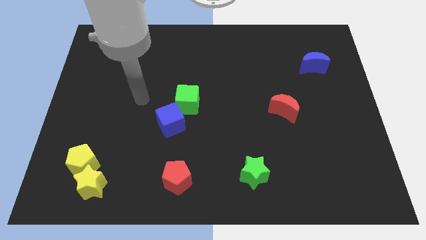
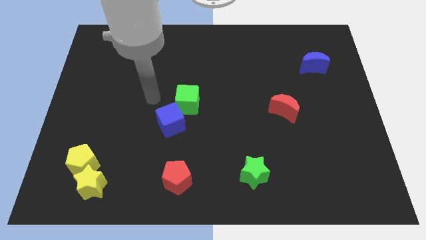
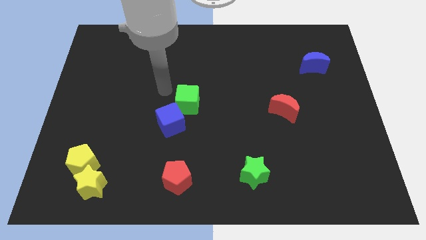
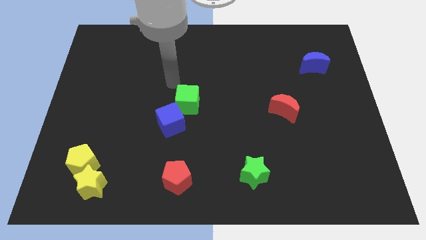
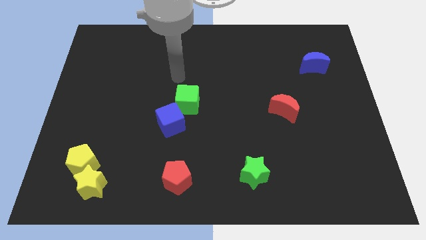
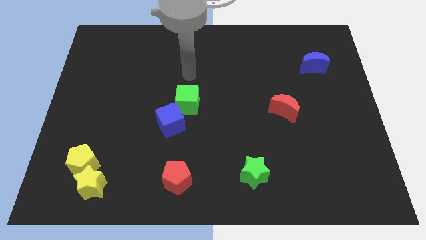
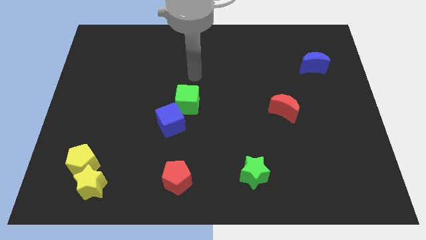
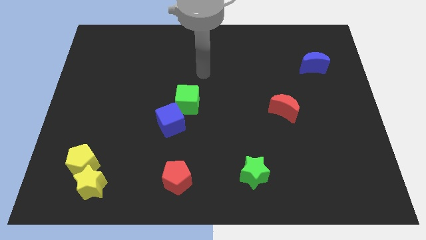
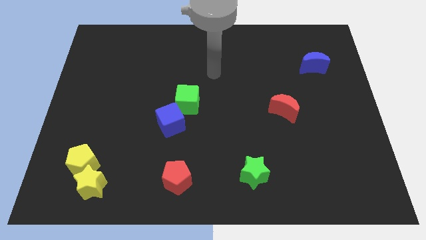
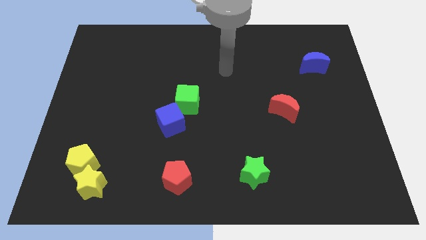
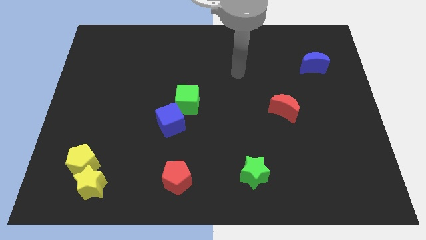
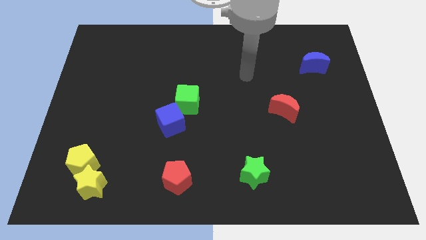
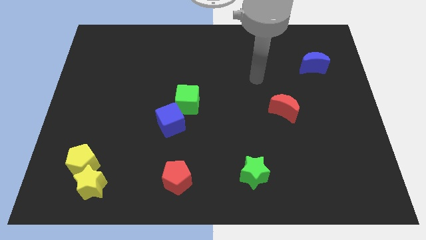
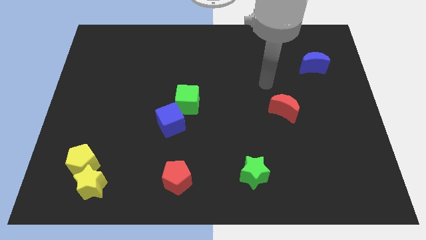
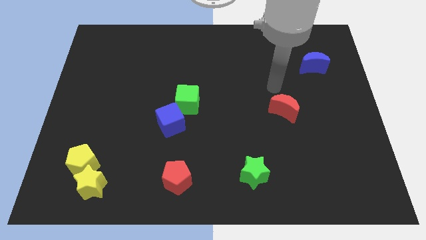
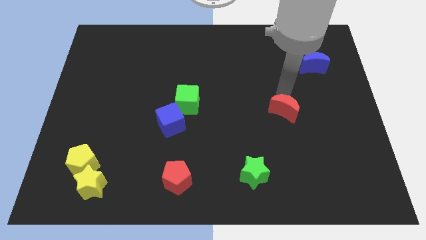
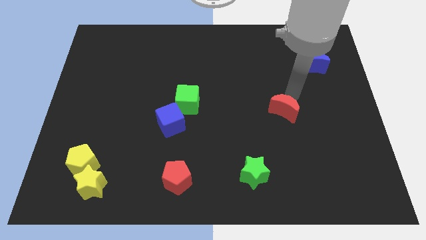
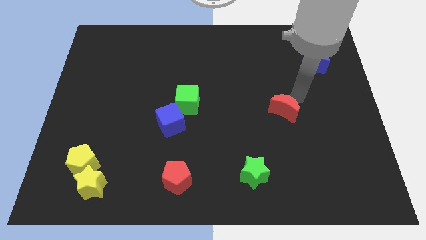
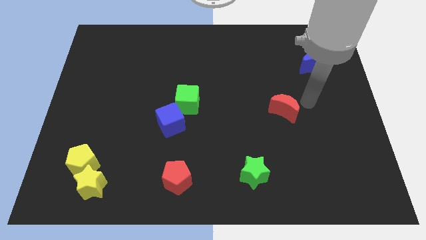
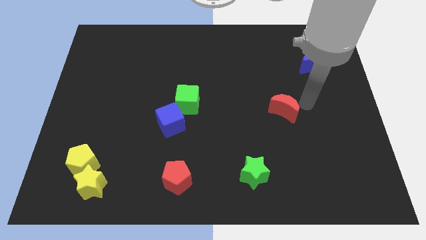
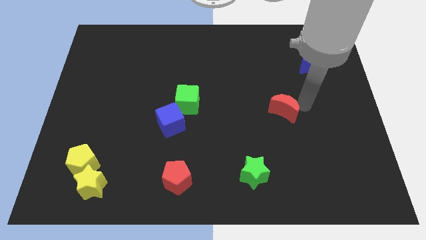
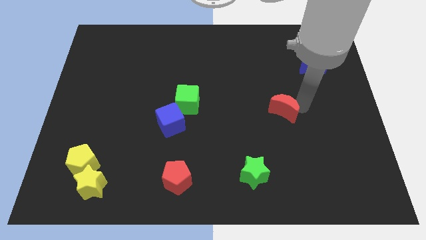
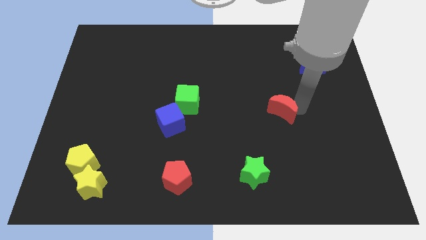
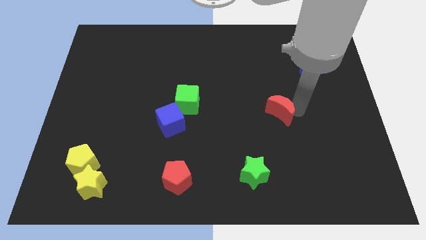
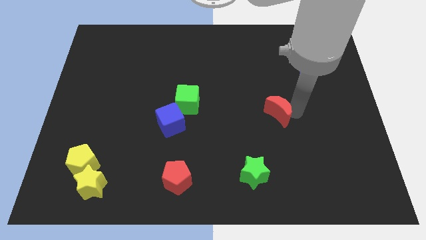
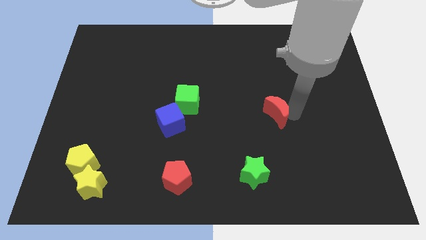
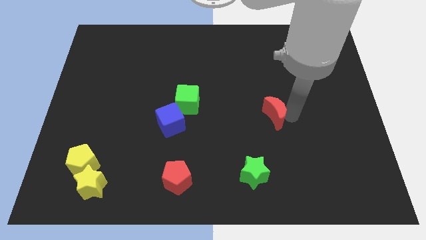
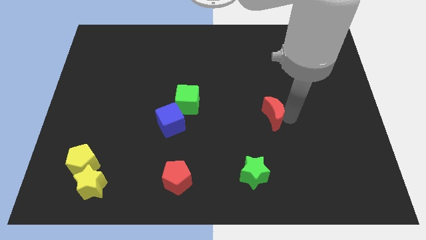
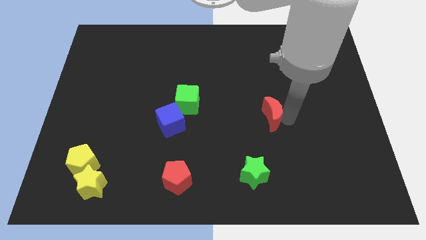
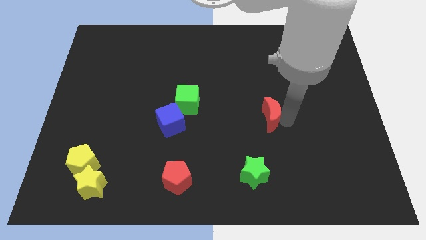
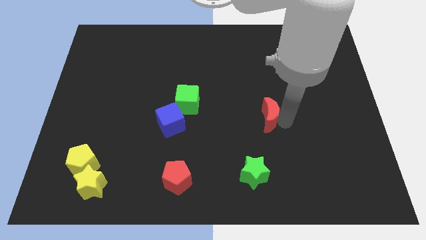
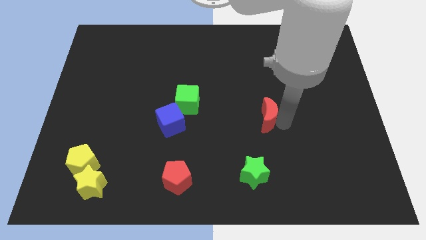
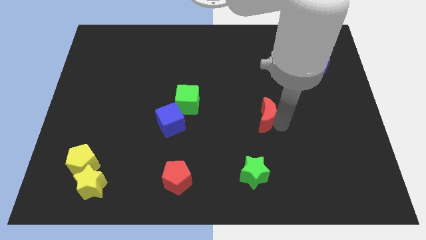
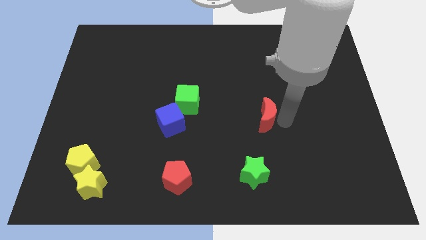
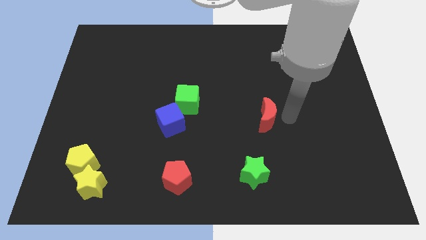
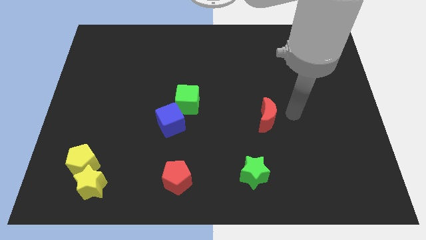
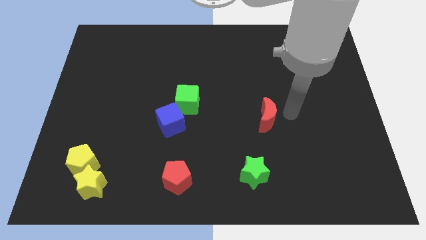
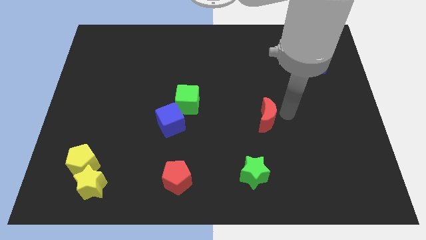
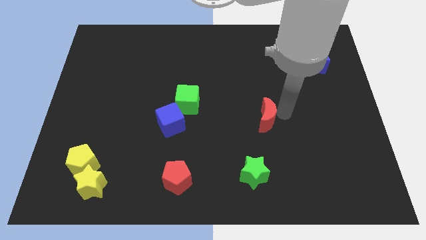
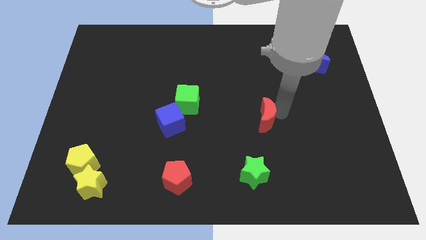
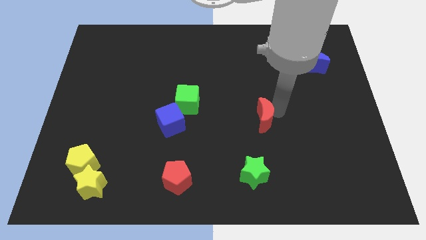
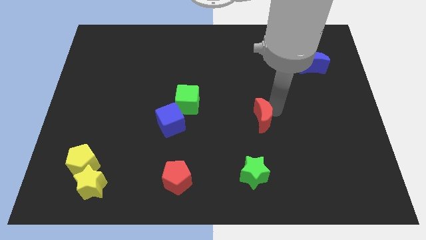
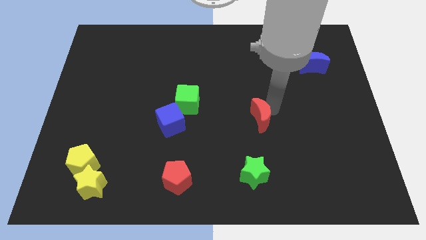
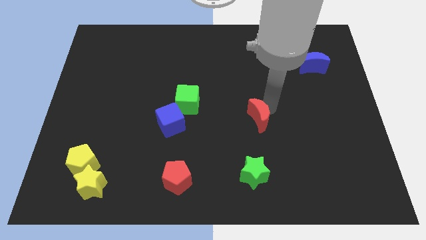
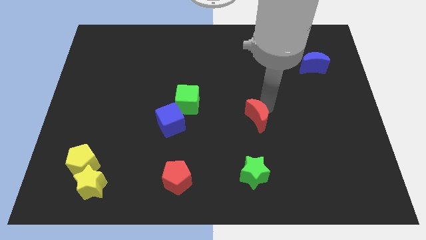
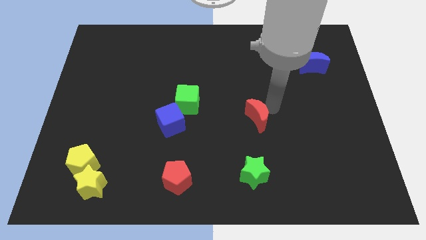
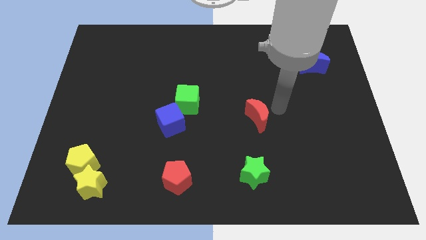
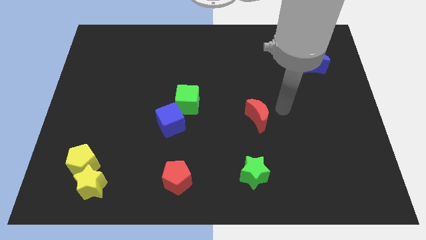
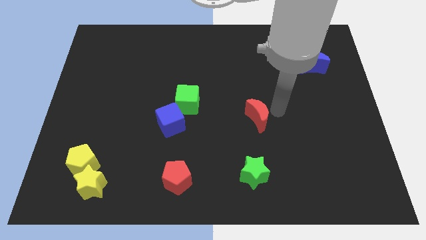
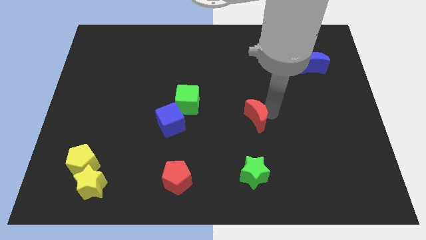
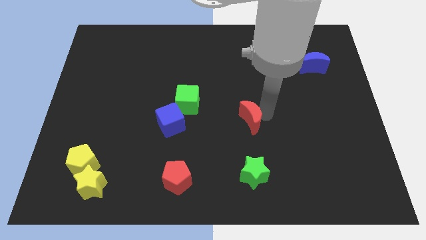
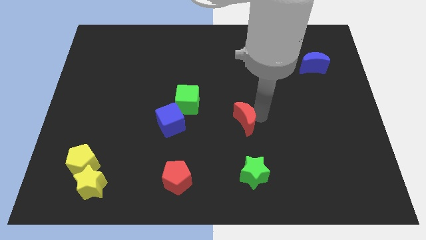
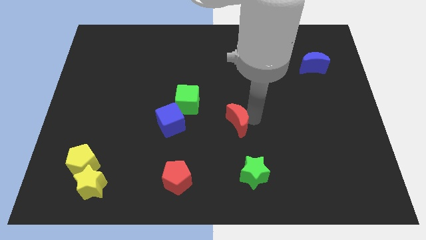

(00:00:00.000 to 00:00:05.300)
put the red moon right of the blue cube

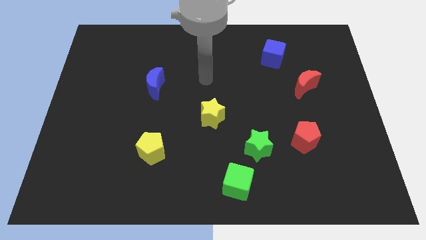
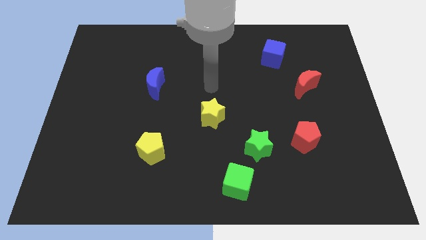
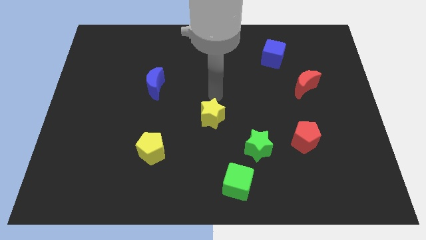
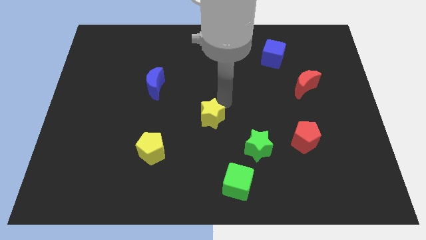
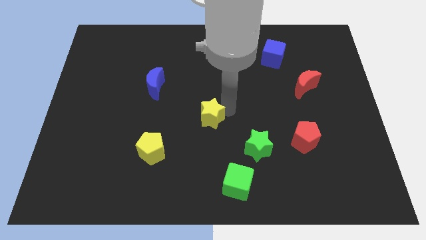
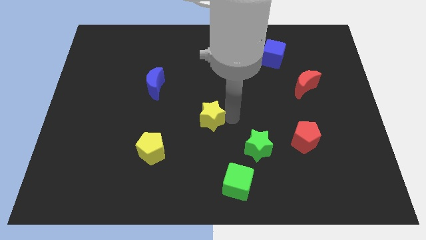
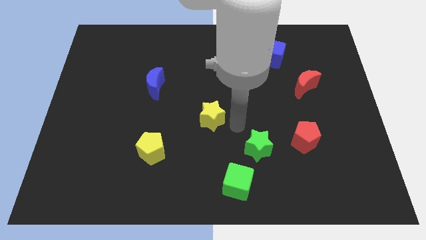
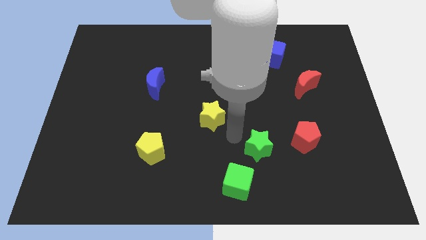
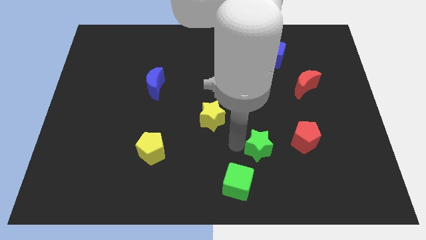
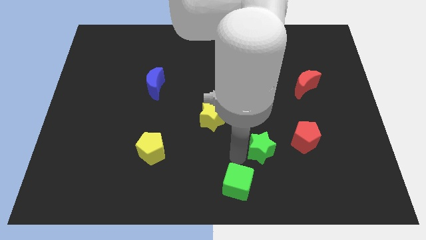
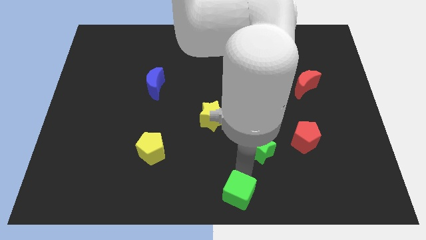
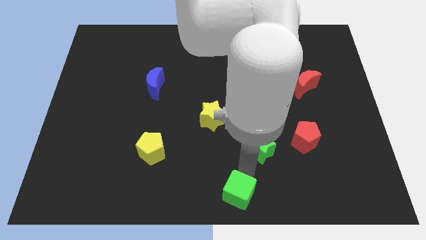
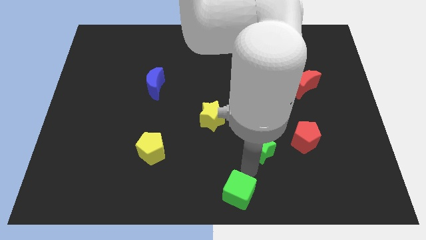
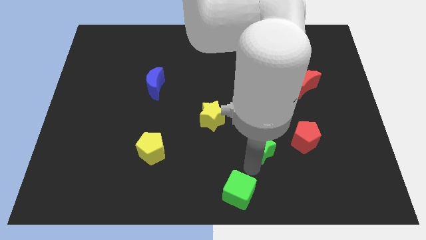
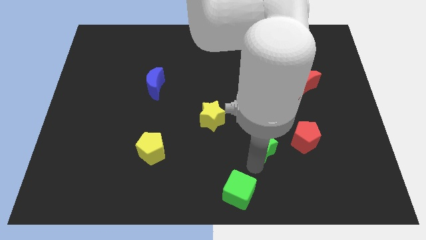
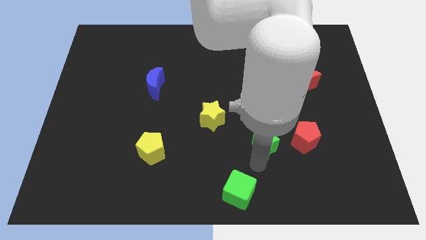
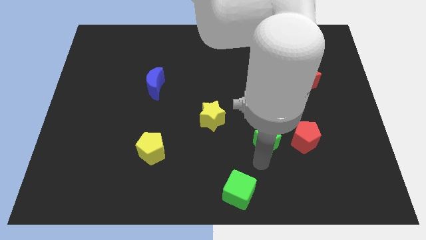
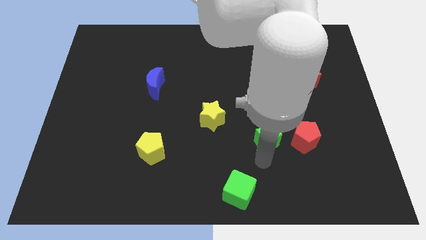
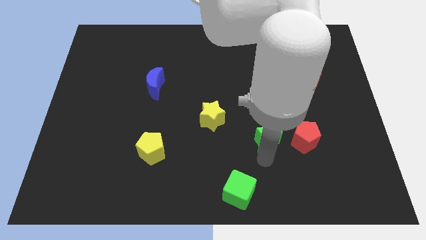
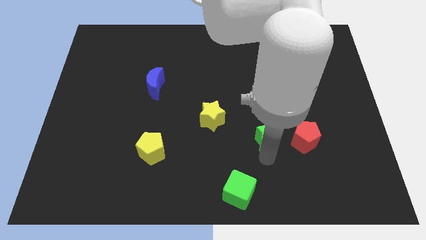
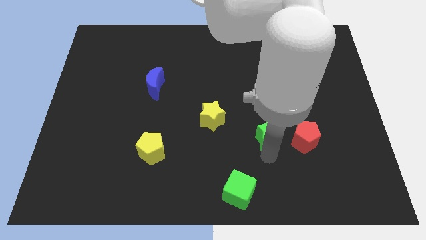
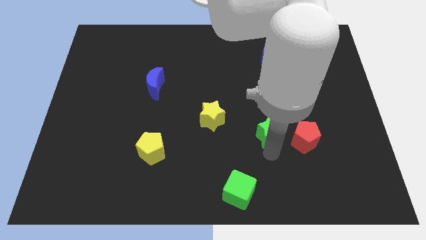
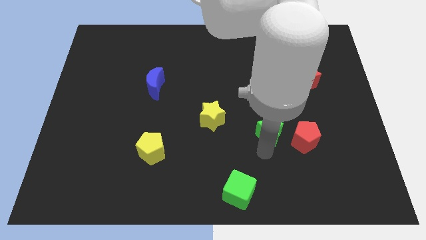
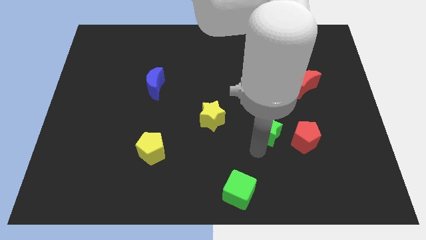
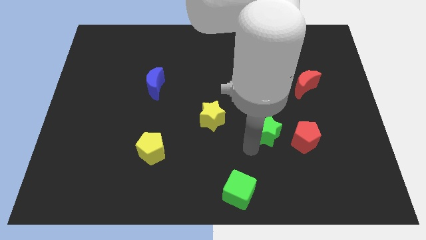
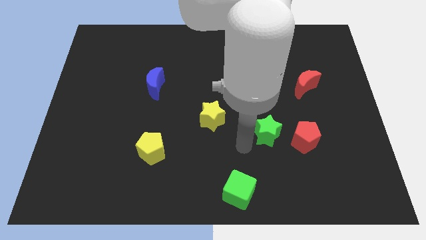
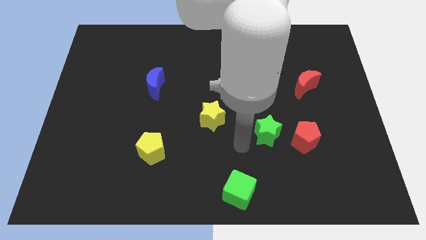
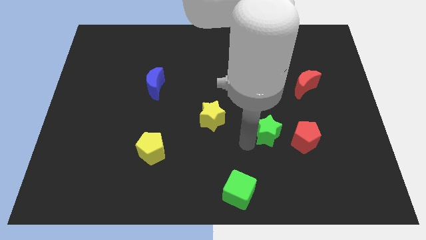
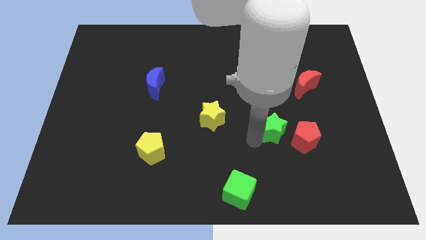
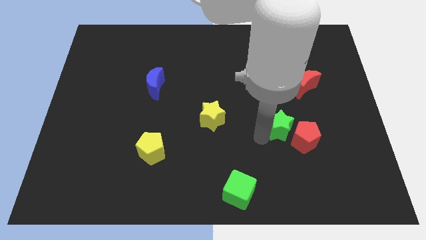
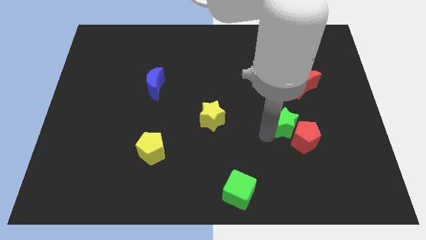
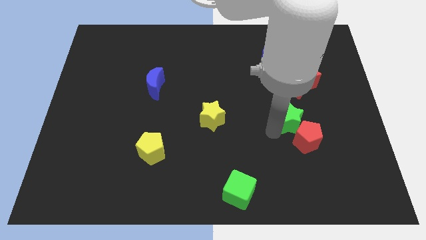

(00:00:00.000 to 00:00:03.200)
push the green star below the red moon
